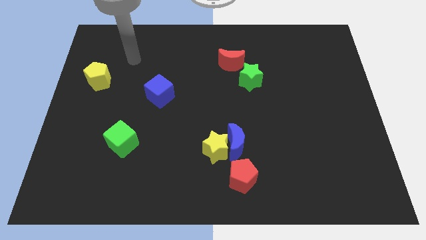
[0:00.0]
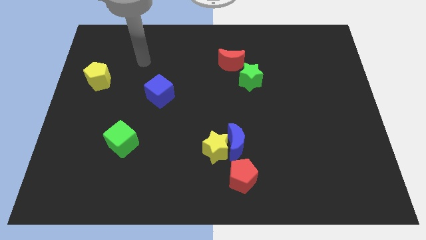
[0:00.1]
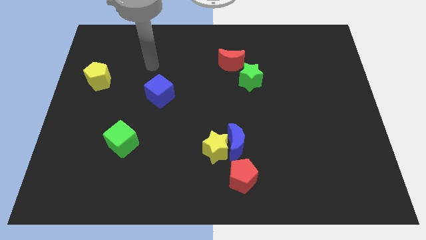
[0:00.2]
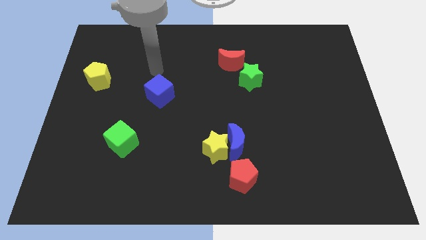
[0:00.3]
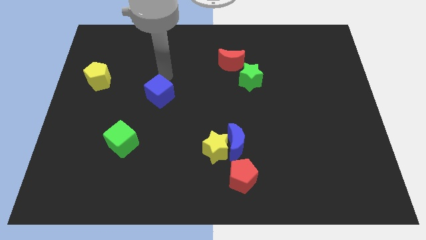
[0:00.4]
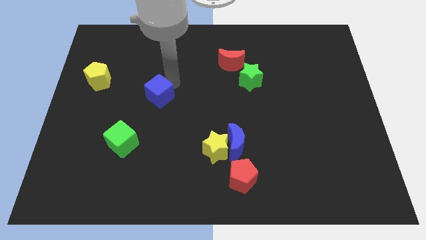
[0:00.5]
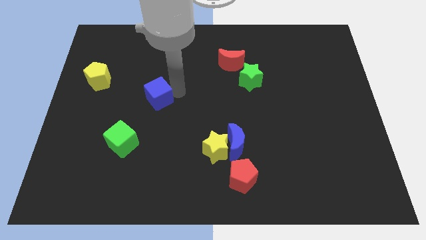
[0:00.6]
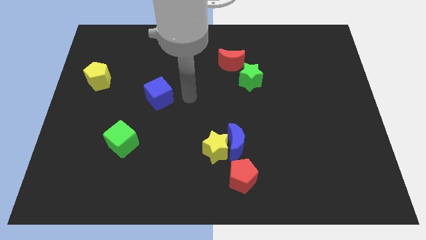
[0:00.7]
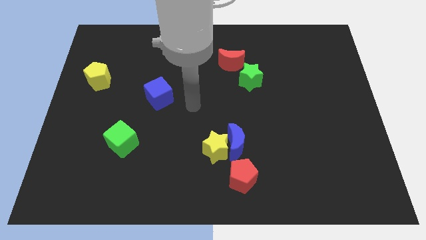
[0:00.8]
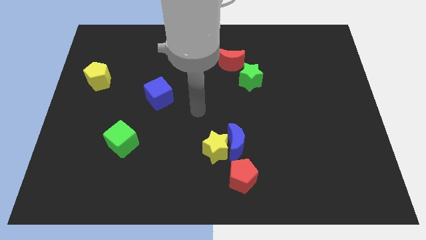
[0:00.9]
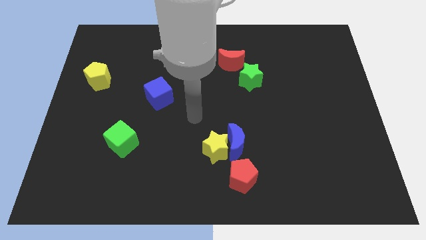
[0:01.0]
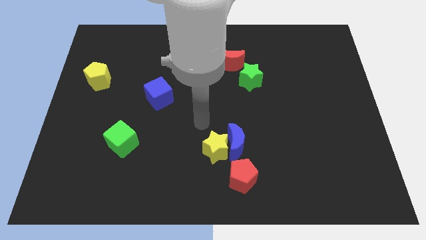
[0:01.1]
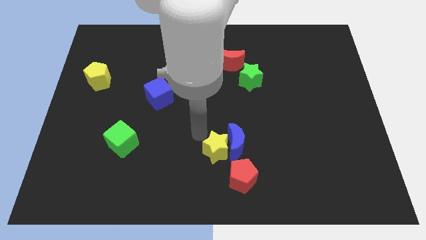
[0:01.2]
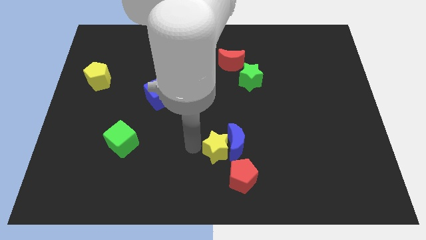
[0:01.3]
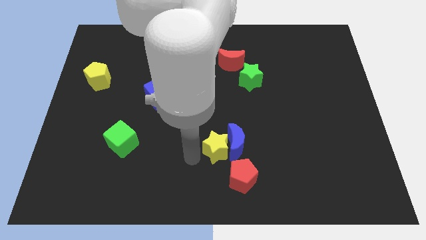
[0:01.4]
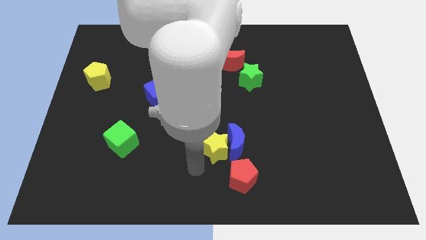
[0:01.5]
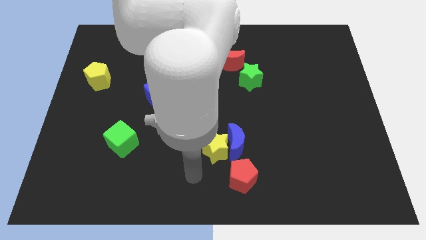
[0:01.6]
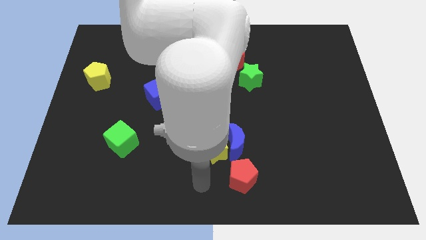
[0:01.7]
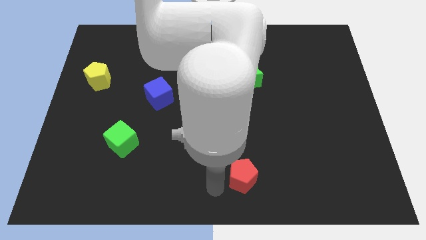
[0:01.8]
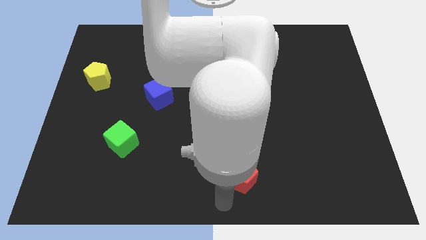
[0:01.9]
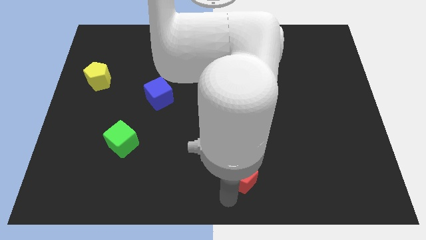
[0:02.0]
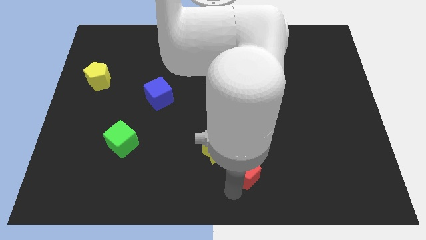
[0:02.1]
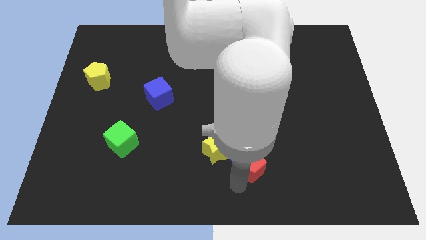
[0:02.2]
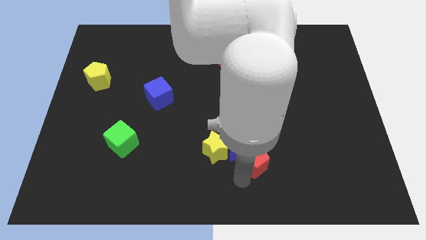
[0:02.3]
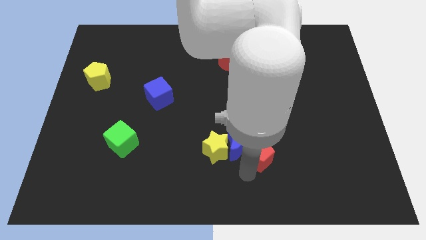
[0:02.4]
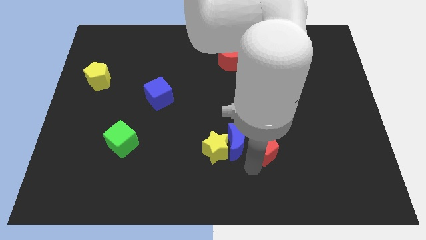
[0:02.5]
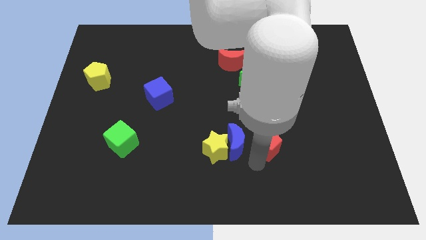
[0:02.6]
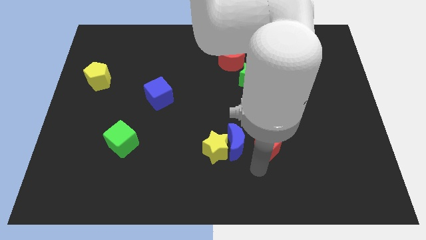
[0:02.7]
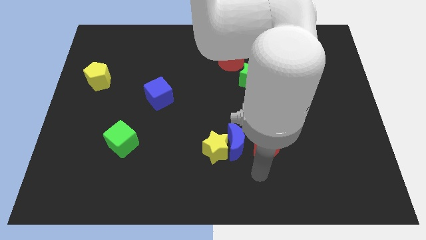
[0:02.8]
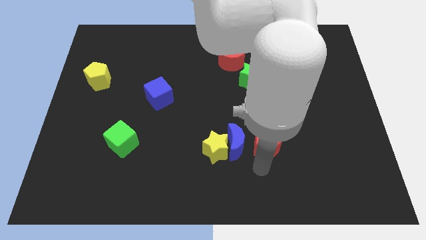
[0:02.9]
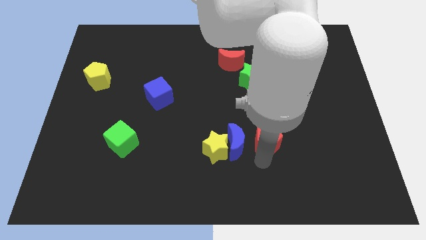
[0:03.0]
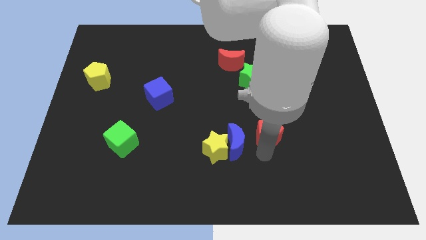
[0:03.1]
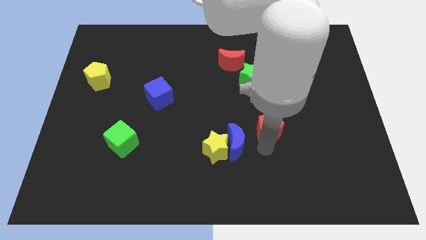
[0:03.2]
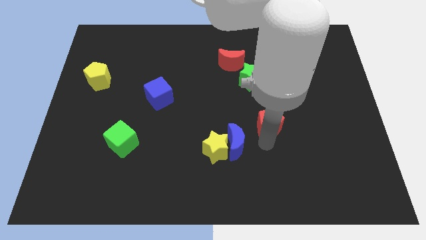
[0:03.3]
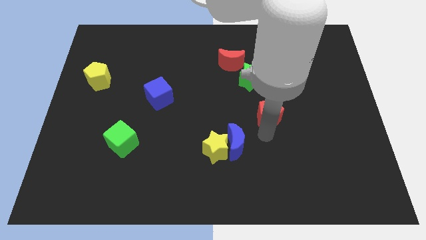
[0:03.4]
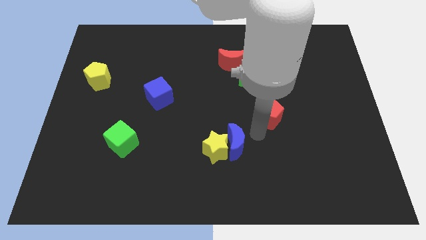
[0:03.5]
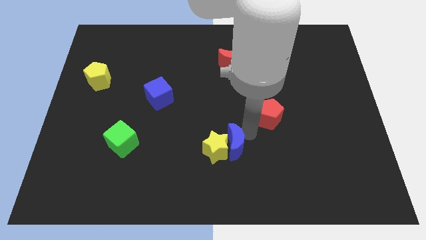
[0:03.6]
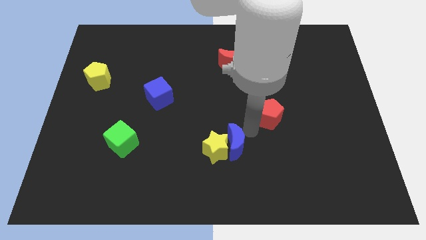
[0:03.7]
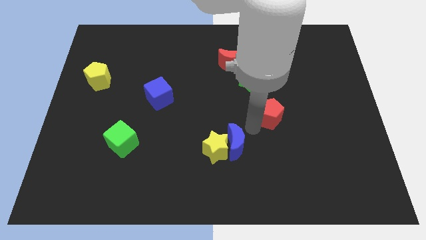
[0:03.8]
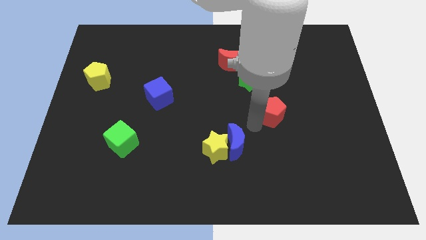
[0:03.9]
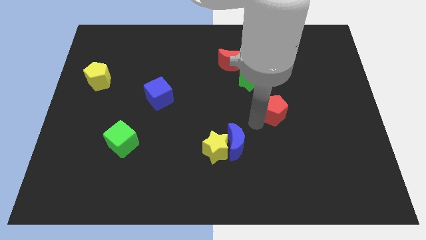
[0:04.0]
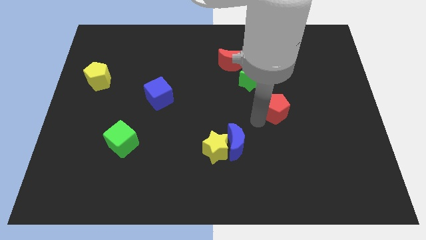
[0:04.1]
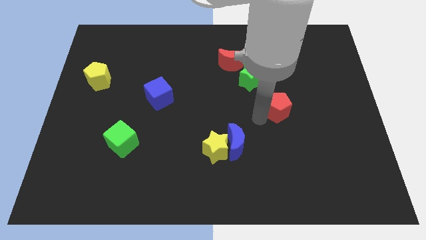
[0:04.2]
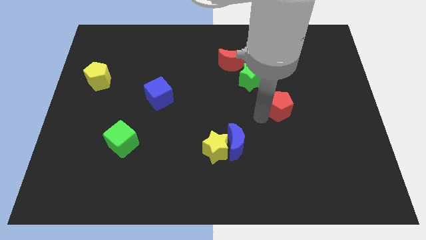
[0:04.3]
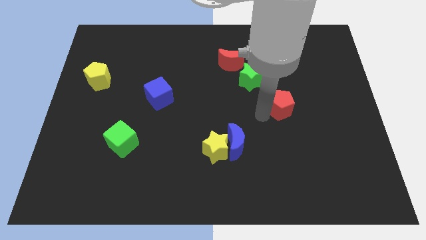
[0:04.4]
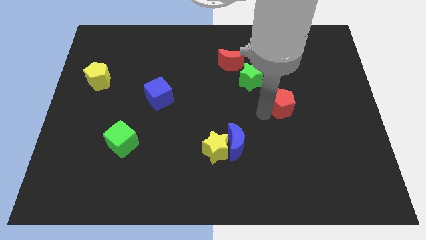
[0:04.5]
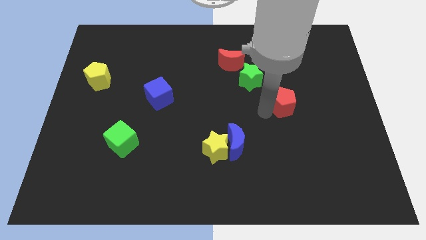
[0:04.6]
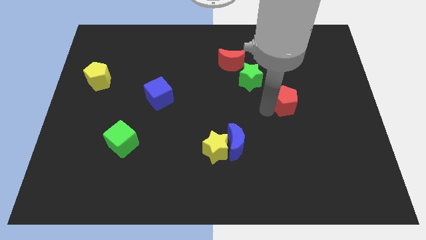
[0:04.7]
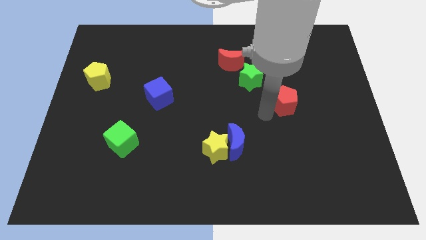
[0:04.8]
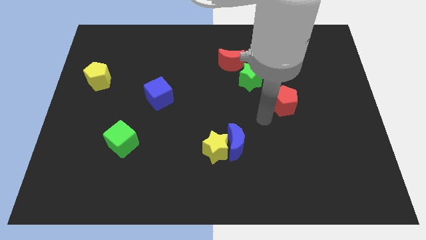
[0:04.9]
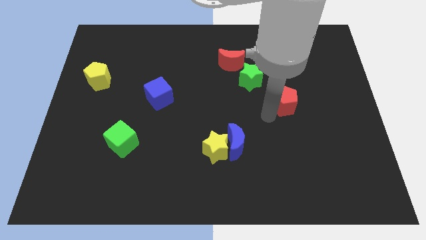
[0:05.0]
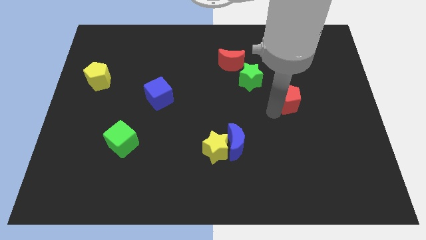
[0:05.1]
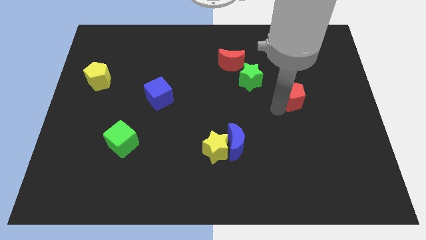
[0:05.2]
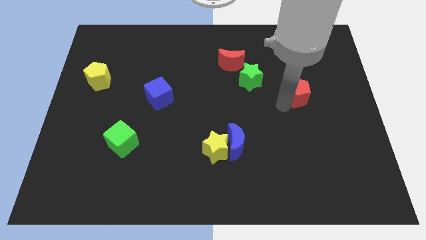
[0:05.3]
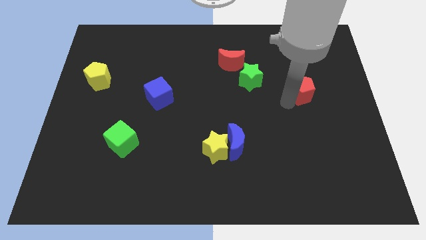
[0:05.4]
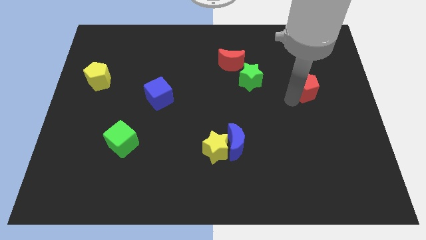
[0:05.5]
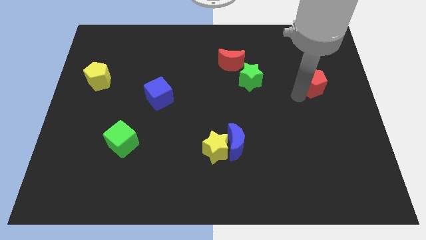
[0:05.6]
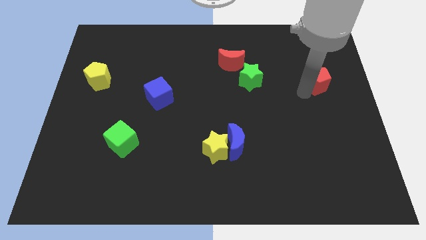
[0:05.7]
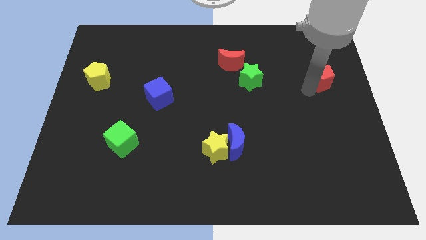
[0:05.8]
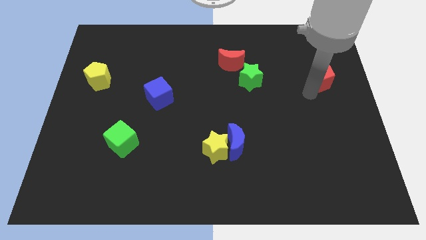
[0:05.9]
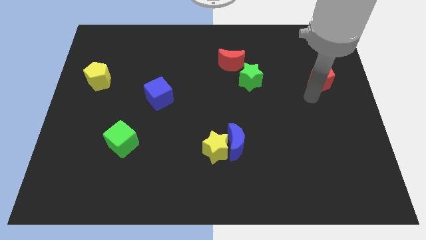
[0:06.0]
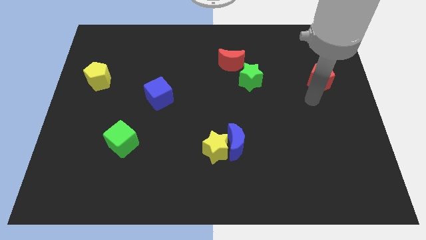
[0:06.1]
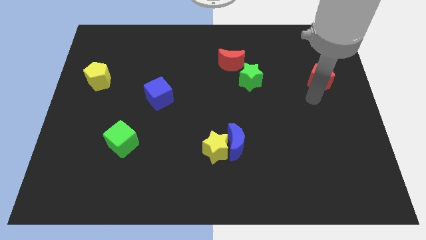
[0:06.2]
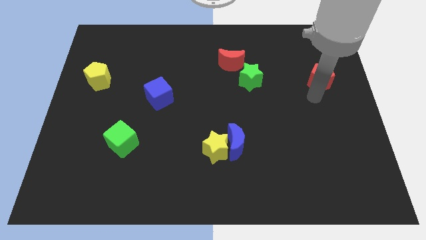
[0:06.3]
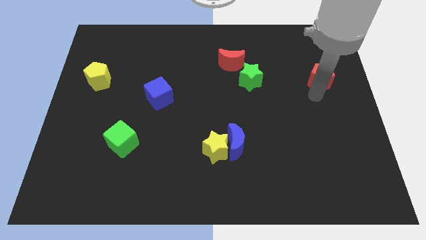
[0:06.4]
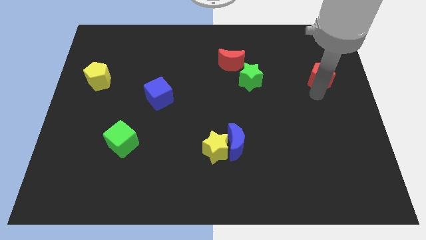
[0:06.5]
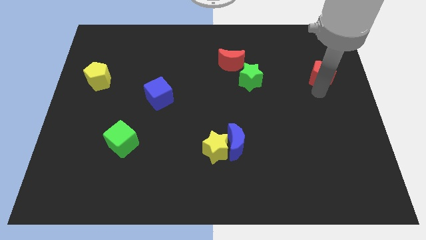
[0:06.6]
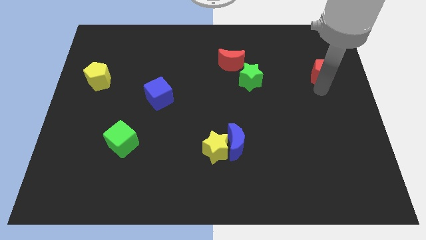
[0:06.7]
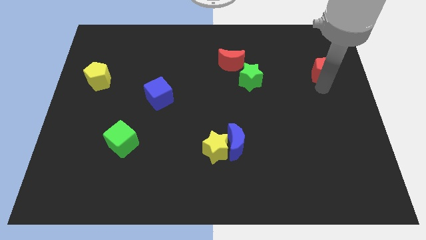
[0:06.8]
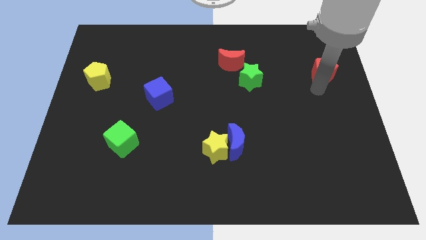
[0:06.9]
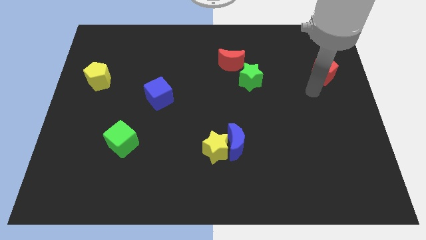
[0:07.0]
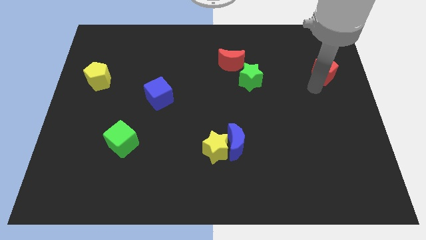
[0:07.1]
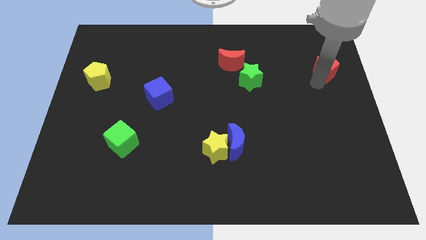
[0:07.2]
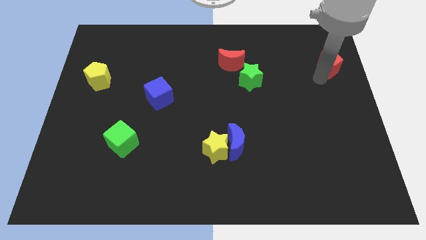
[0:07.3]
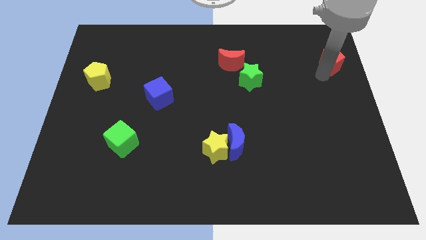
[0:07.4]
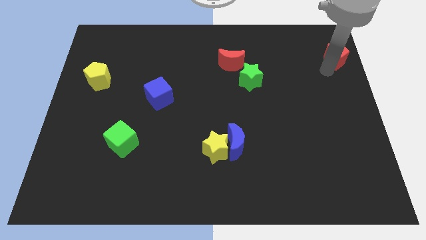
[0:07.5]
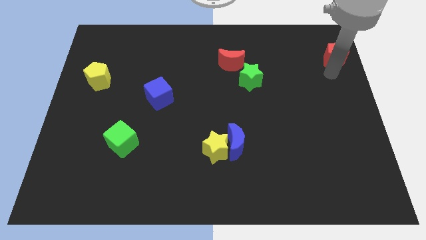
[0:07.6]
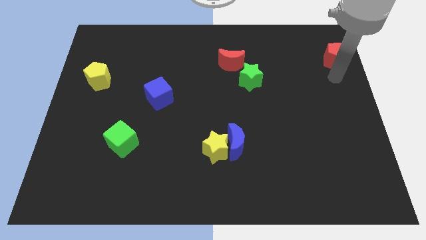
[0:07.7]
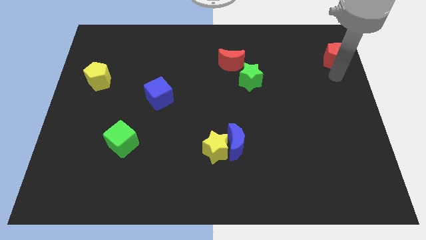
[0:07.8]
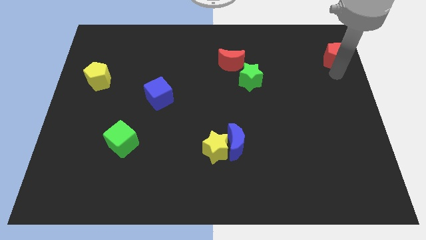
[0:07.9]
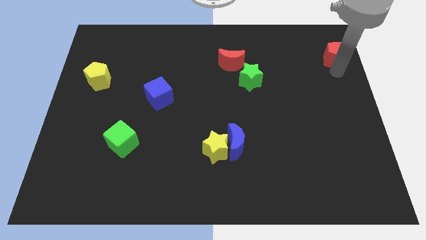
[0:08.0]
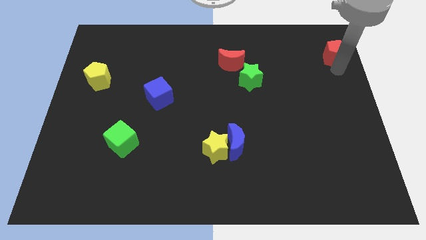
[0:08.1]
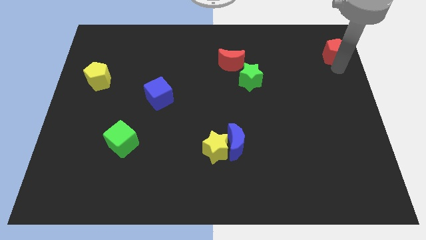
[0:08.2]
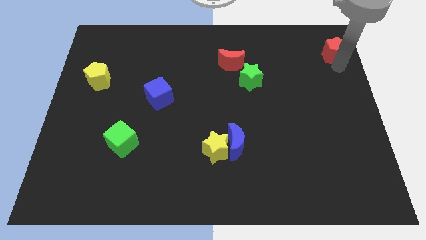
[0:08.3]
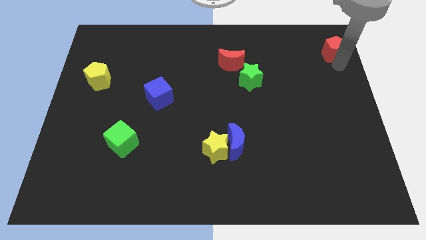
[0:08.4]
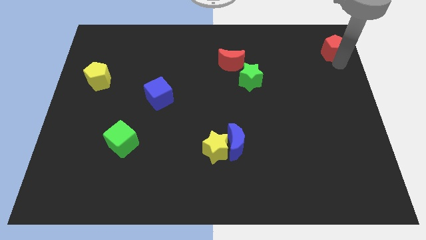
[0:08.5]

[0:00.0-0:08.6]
put the red pentagon to the top right
